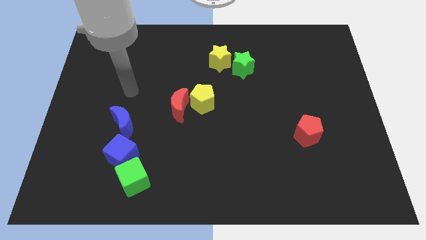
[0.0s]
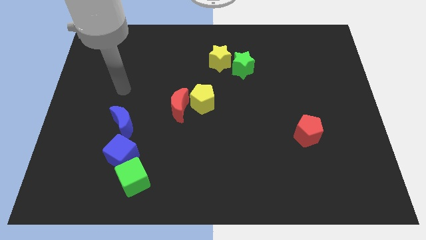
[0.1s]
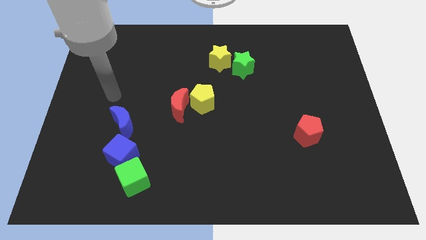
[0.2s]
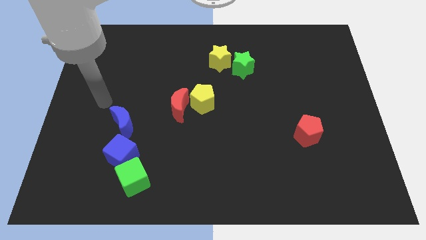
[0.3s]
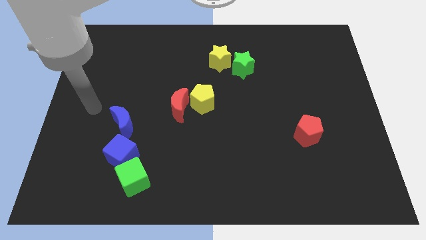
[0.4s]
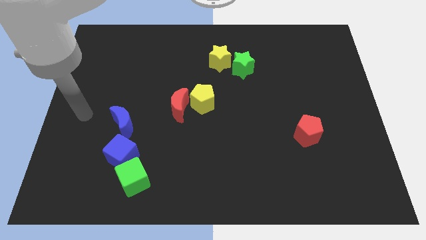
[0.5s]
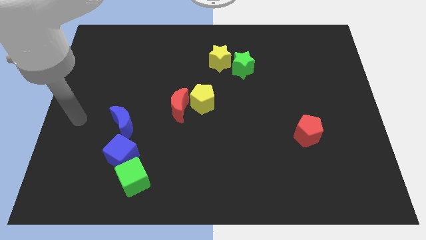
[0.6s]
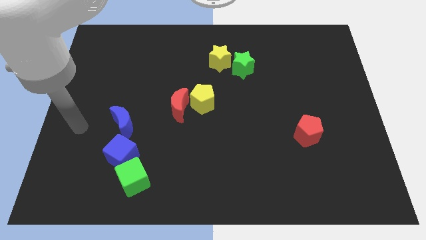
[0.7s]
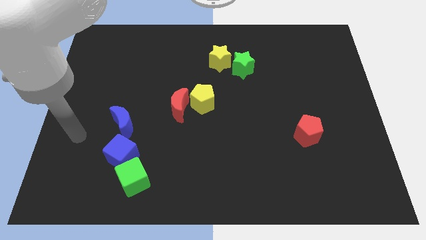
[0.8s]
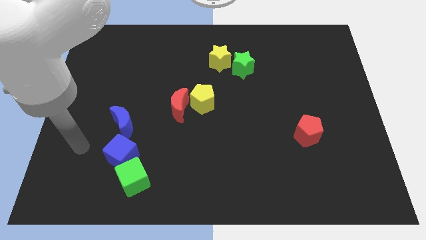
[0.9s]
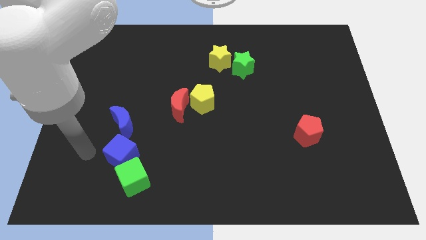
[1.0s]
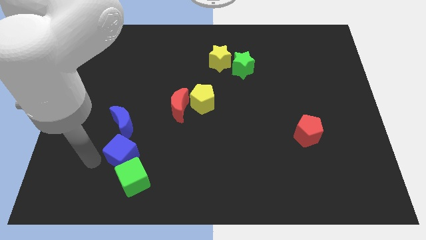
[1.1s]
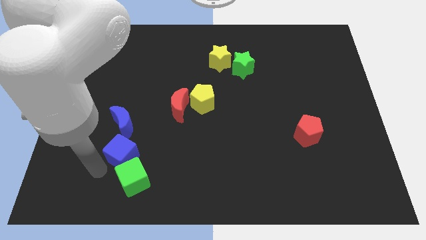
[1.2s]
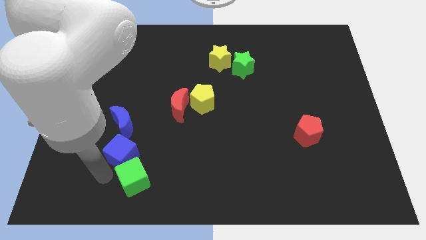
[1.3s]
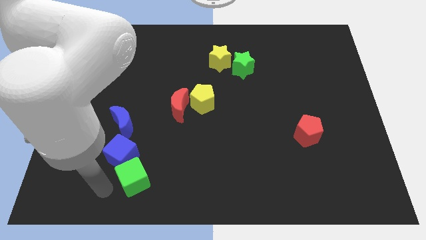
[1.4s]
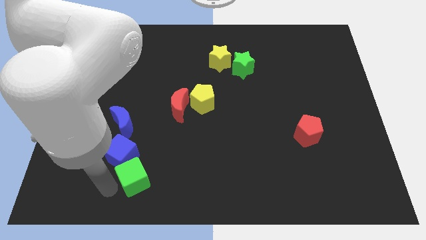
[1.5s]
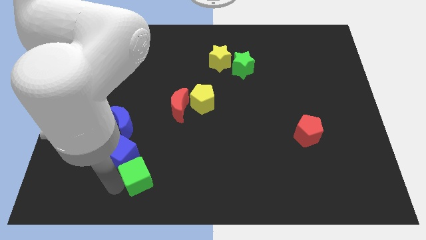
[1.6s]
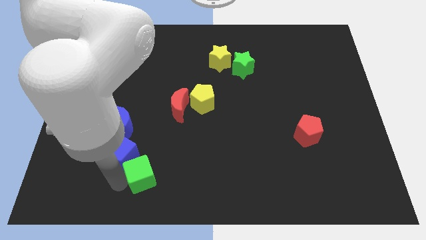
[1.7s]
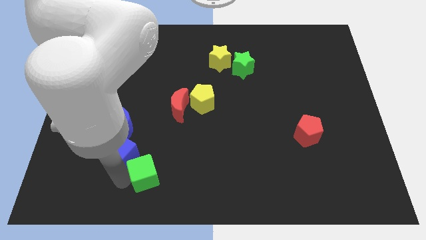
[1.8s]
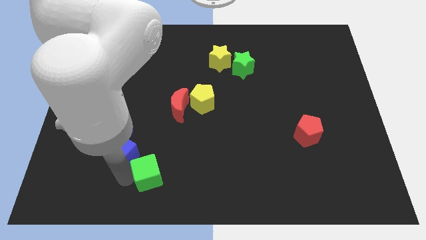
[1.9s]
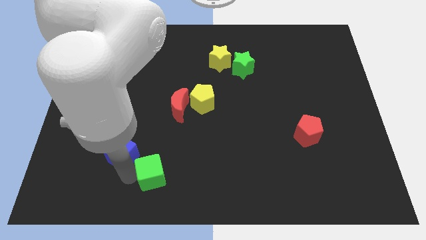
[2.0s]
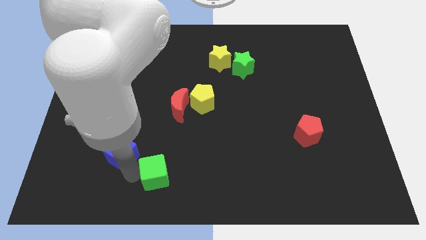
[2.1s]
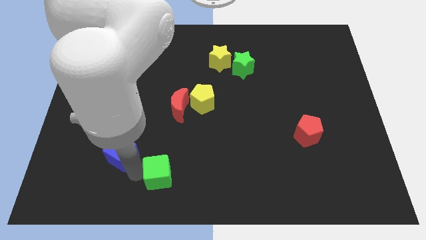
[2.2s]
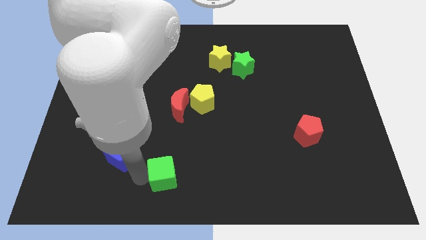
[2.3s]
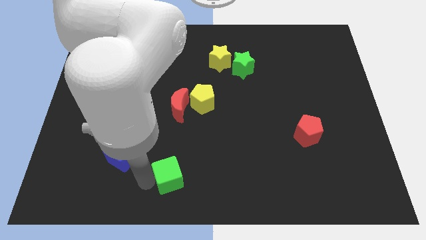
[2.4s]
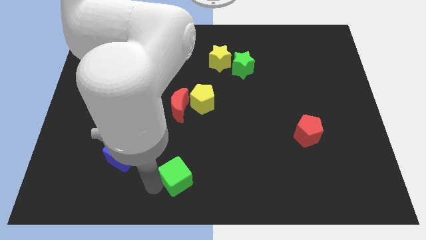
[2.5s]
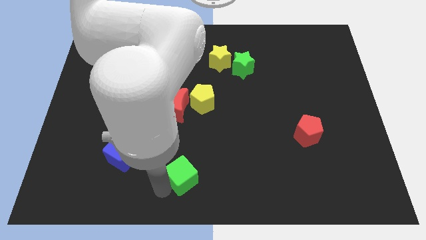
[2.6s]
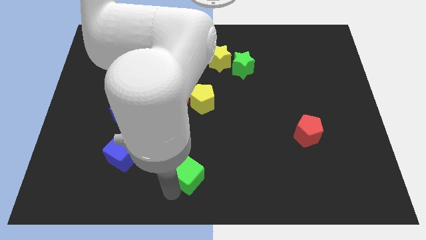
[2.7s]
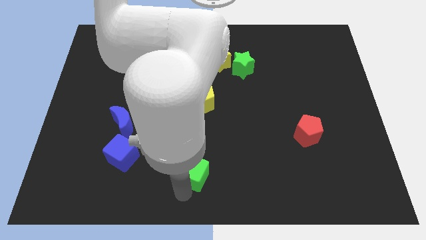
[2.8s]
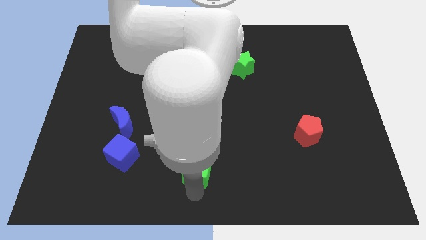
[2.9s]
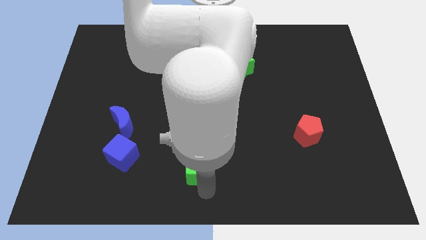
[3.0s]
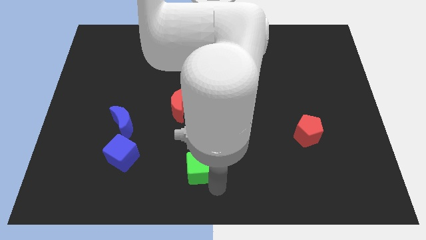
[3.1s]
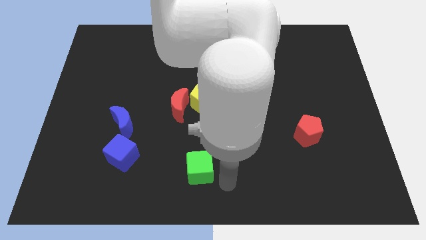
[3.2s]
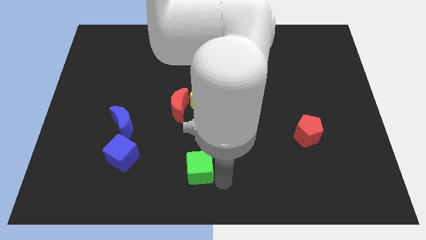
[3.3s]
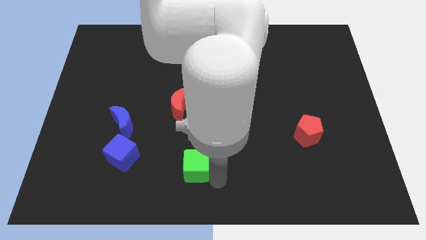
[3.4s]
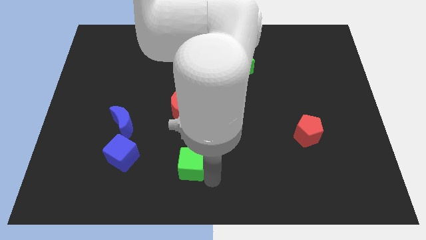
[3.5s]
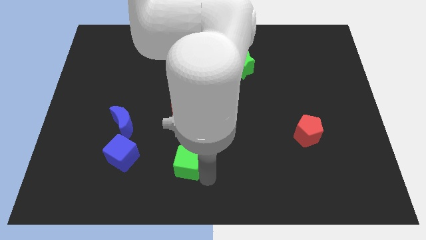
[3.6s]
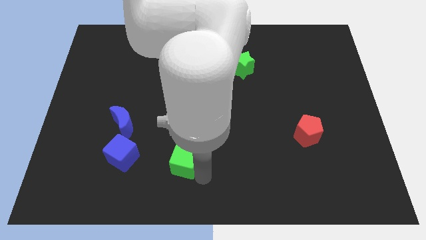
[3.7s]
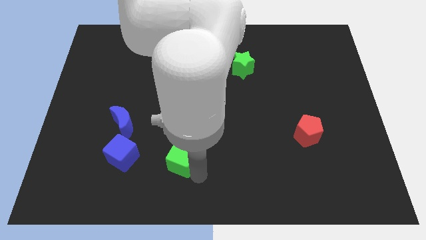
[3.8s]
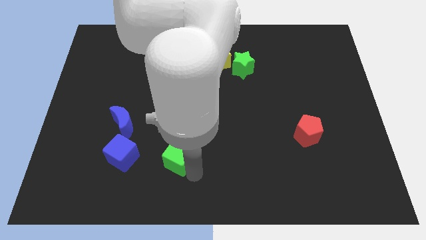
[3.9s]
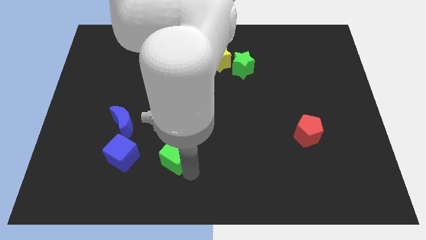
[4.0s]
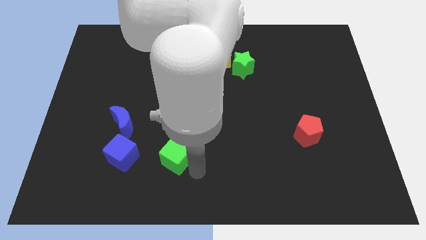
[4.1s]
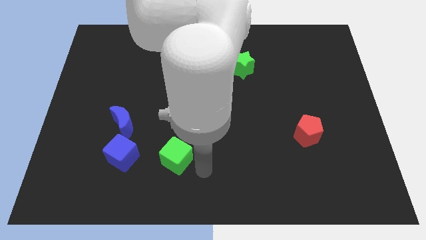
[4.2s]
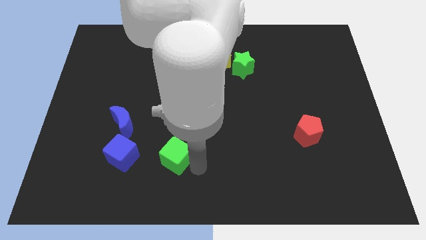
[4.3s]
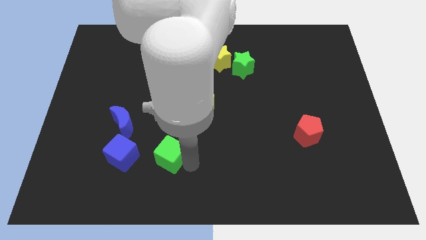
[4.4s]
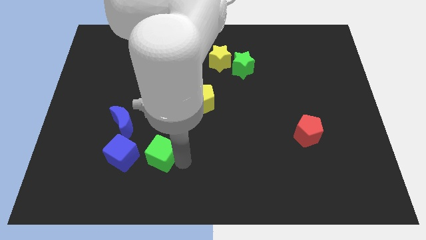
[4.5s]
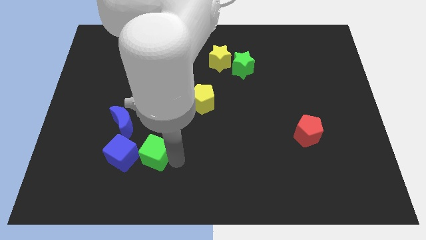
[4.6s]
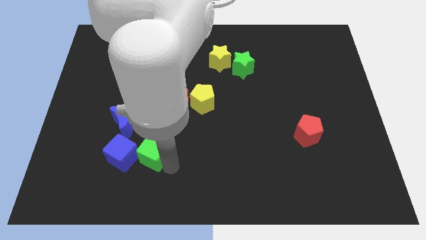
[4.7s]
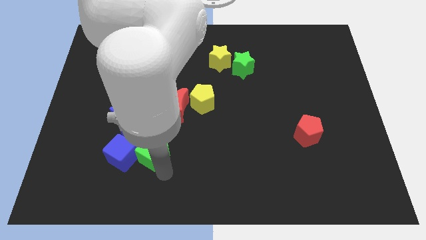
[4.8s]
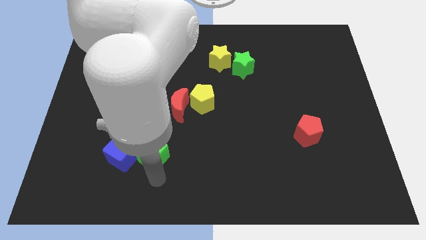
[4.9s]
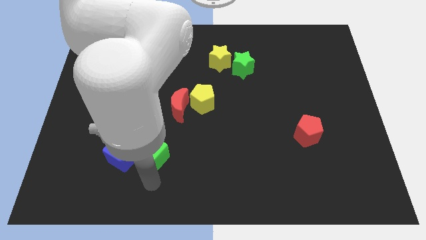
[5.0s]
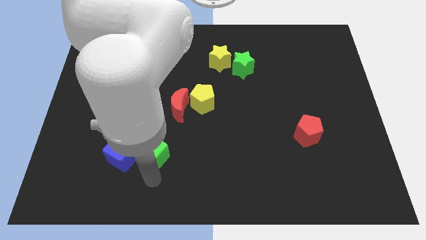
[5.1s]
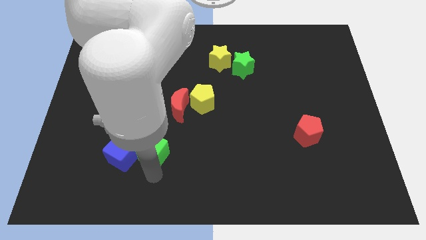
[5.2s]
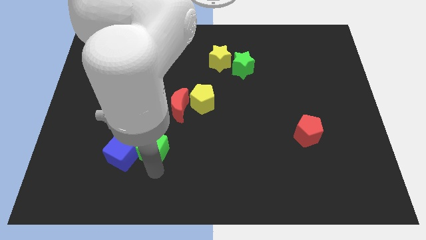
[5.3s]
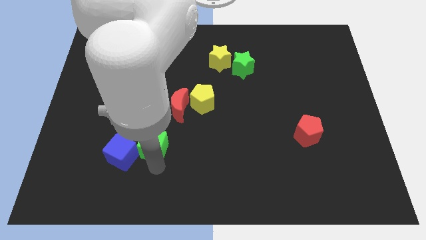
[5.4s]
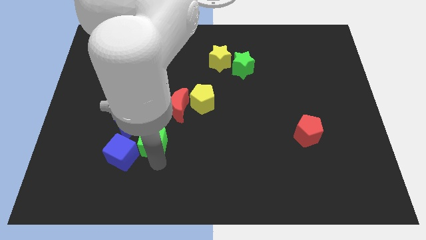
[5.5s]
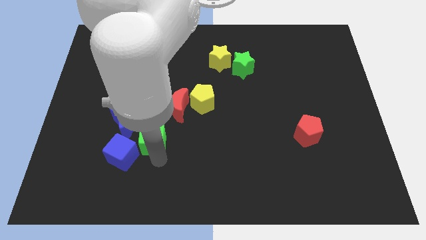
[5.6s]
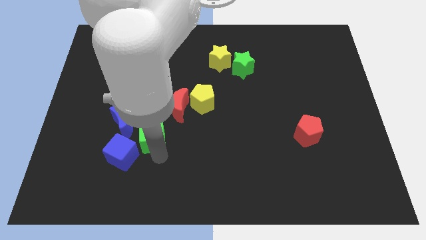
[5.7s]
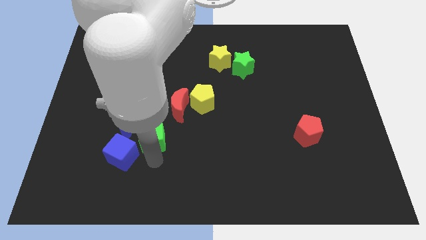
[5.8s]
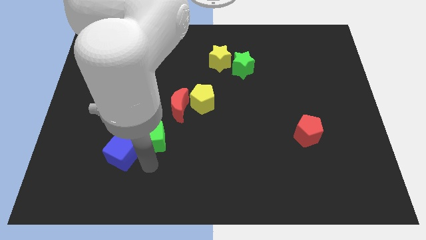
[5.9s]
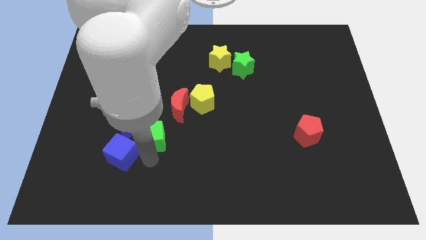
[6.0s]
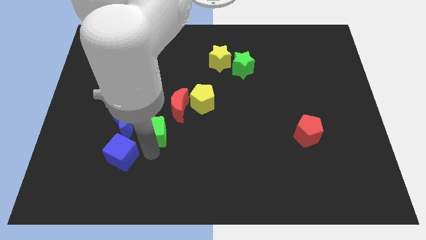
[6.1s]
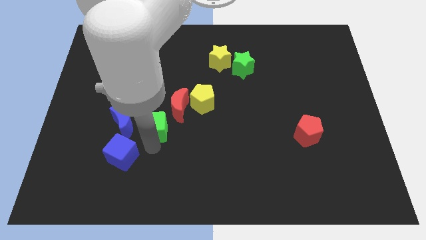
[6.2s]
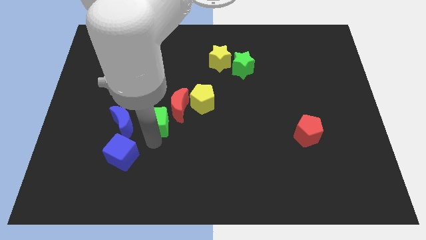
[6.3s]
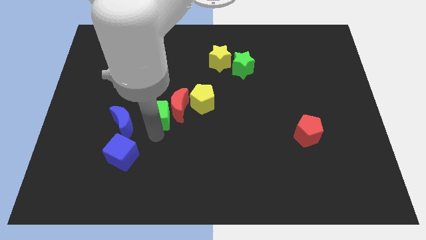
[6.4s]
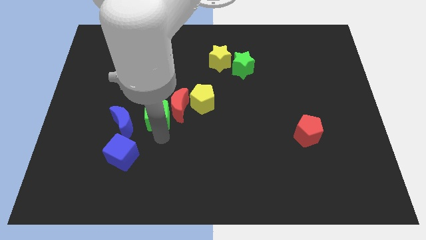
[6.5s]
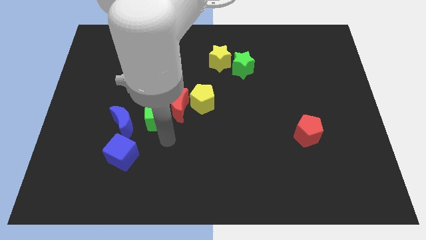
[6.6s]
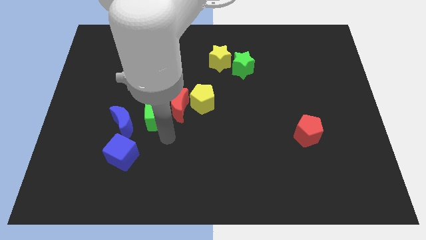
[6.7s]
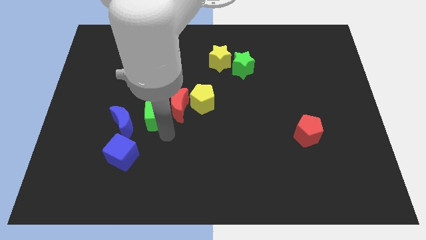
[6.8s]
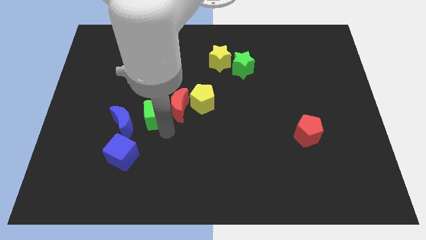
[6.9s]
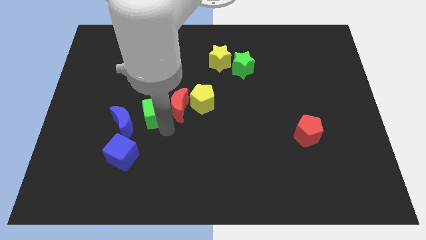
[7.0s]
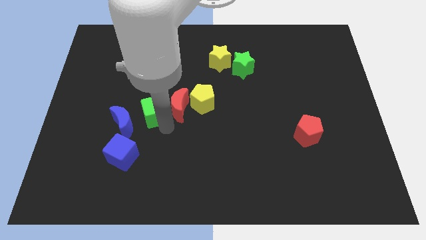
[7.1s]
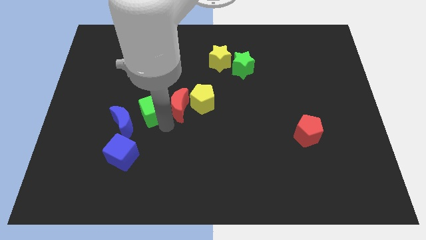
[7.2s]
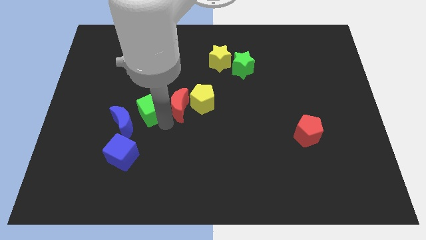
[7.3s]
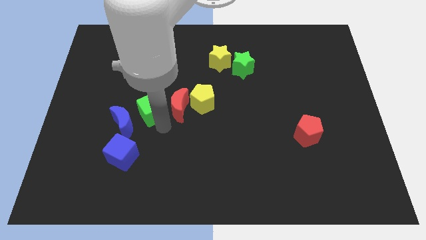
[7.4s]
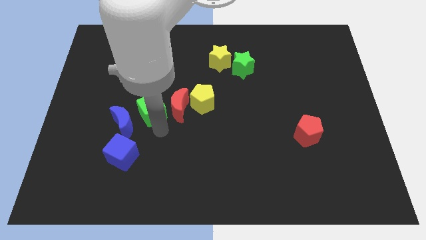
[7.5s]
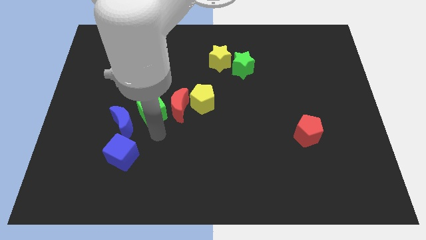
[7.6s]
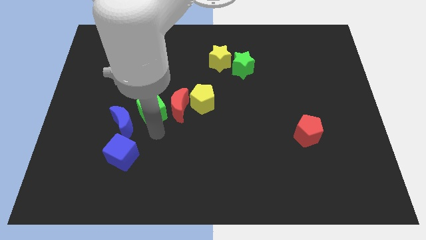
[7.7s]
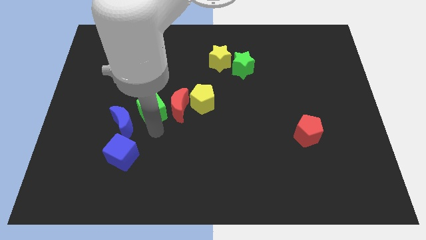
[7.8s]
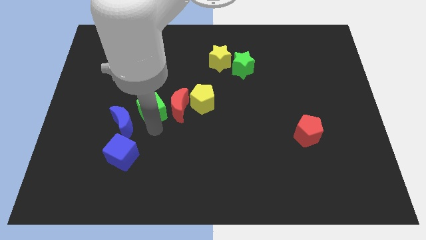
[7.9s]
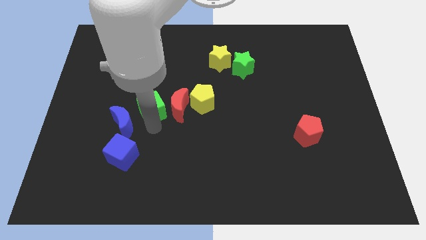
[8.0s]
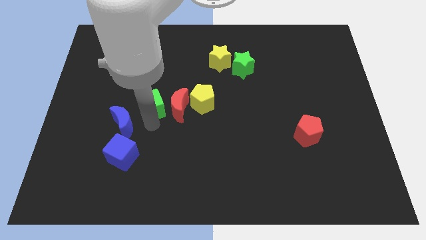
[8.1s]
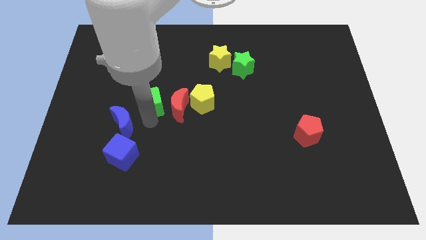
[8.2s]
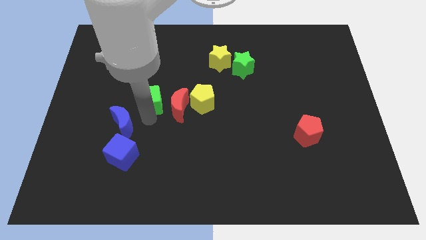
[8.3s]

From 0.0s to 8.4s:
push the green cube upwards
